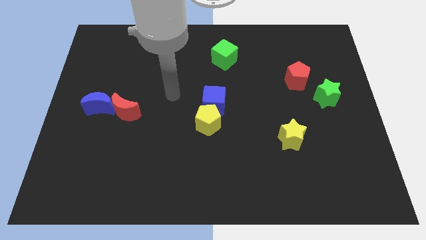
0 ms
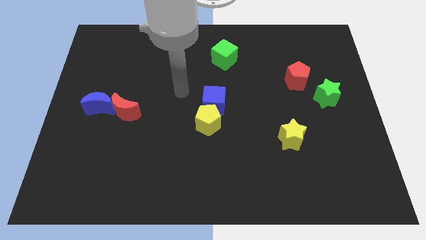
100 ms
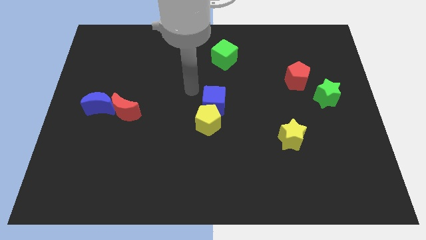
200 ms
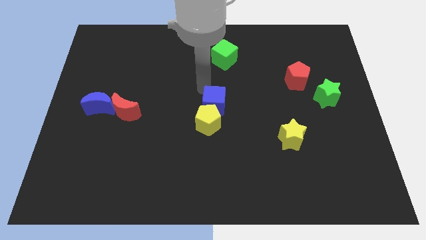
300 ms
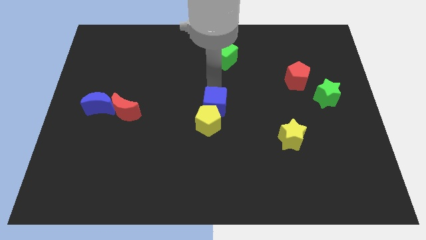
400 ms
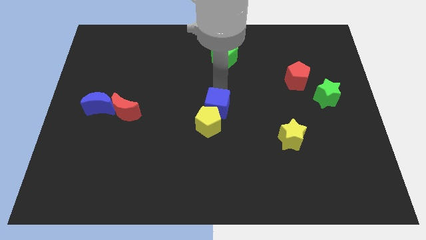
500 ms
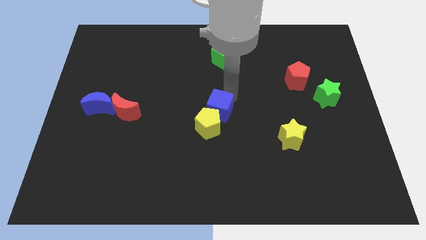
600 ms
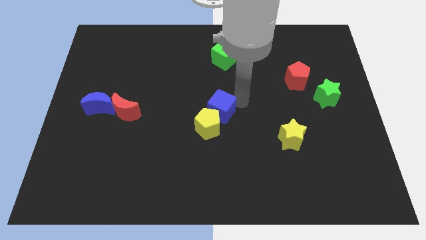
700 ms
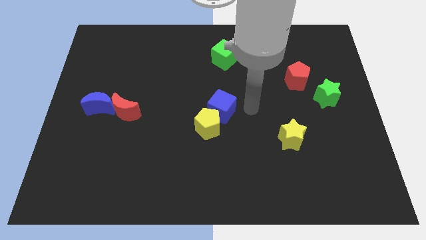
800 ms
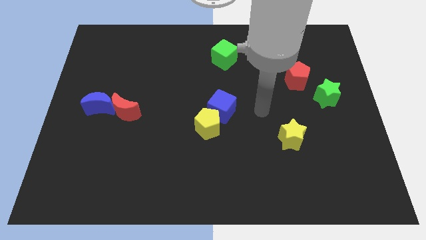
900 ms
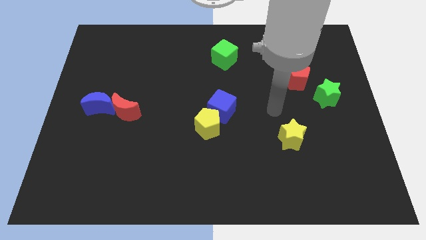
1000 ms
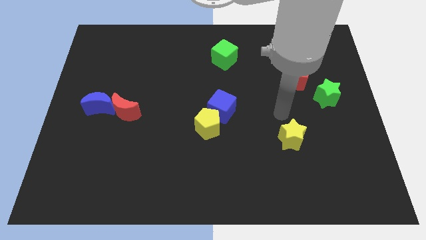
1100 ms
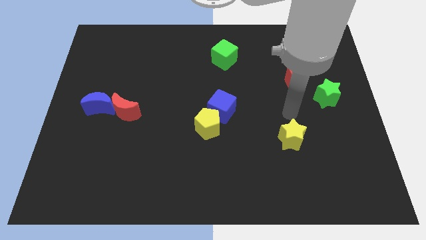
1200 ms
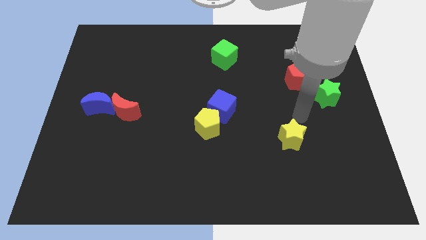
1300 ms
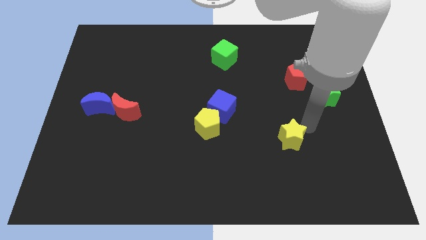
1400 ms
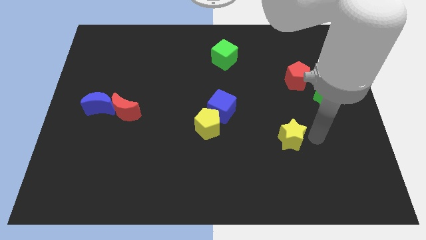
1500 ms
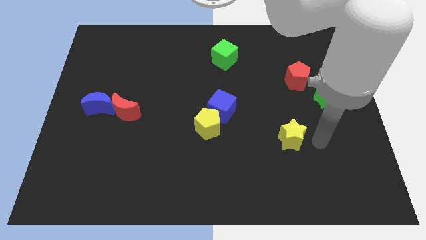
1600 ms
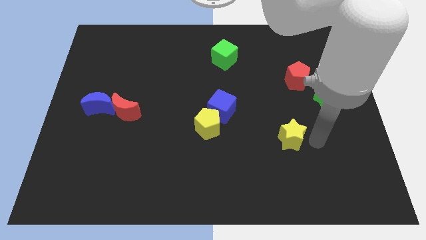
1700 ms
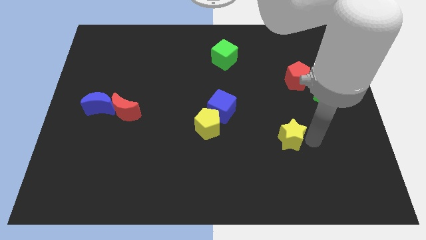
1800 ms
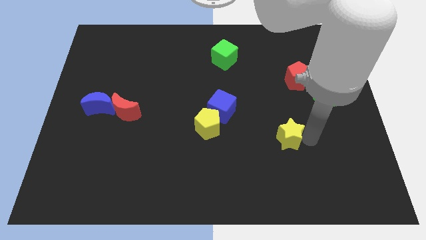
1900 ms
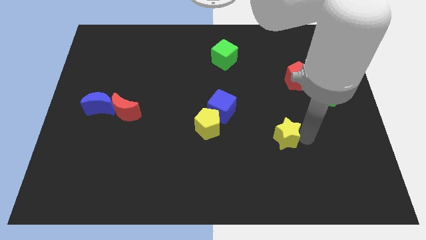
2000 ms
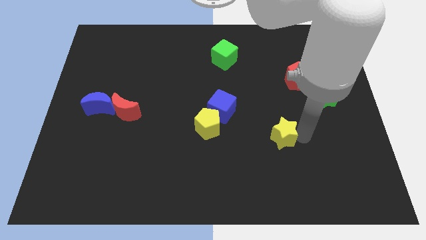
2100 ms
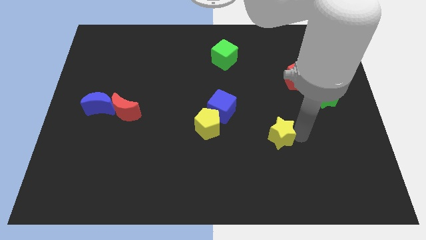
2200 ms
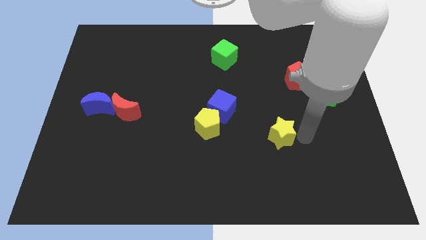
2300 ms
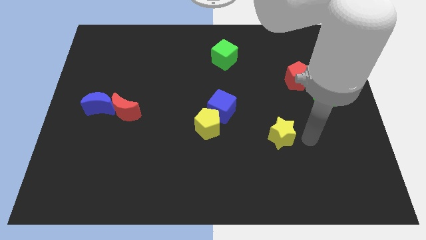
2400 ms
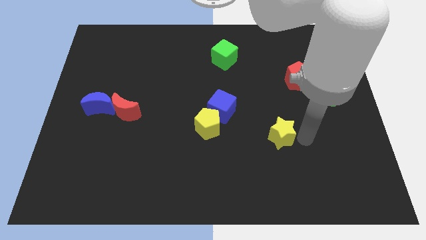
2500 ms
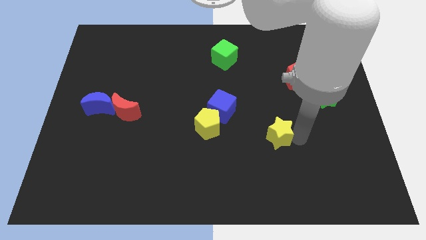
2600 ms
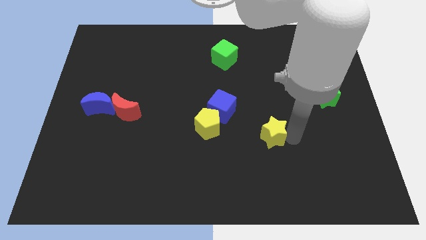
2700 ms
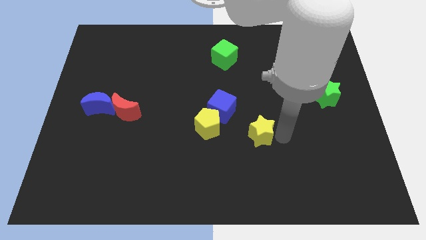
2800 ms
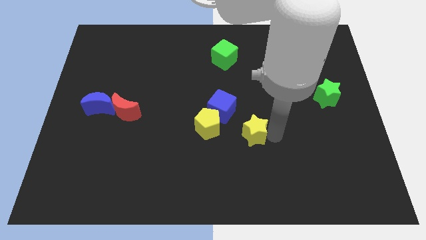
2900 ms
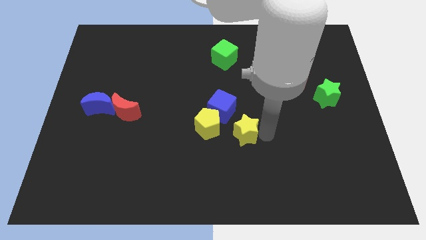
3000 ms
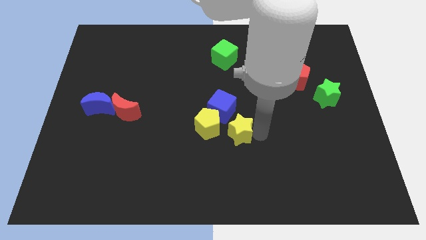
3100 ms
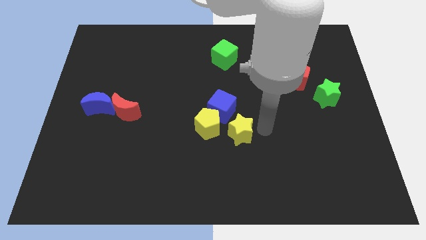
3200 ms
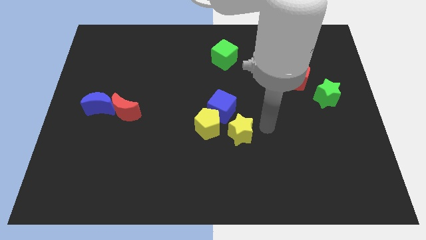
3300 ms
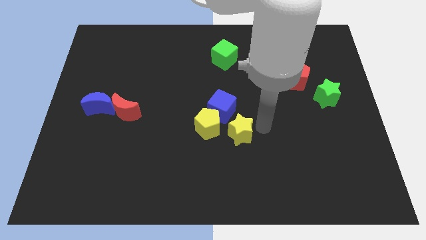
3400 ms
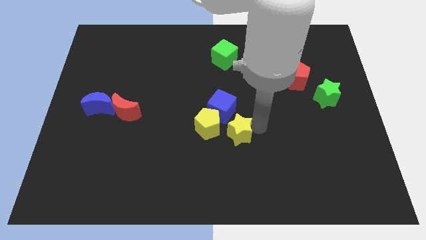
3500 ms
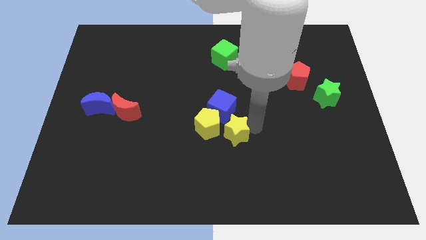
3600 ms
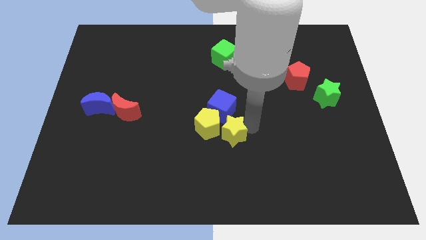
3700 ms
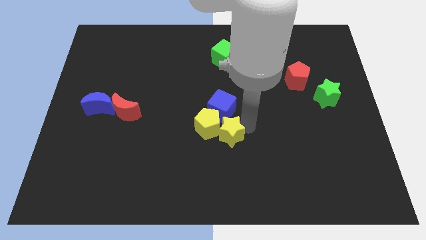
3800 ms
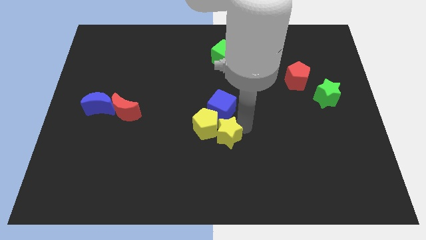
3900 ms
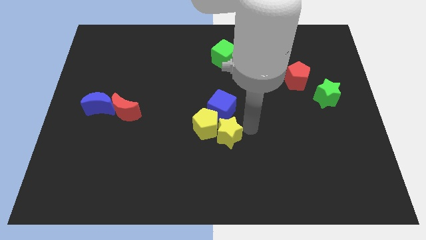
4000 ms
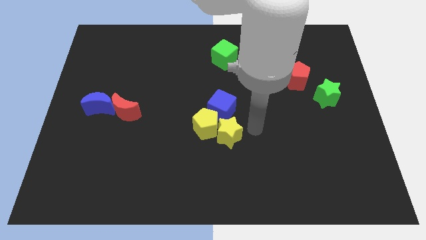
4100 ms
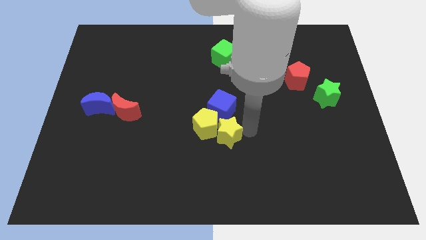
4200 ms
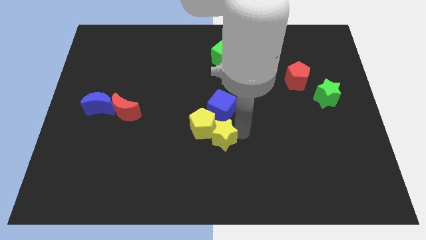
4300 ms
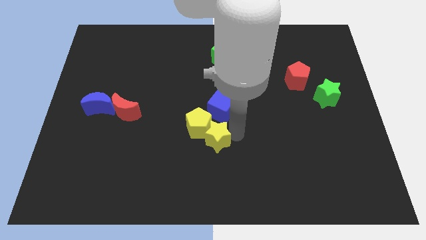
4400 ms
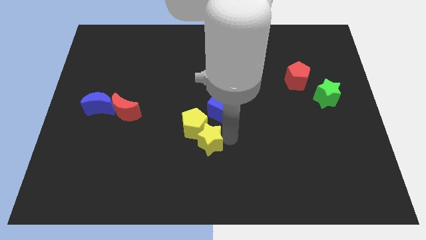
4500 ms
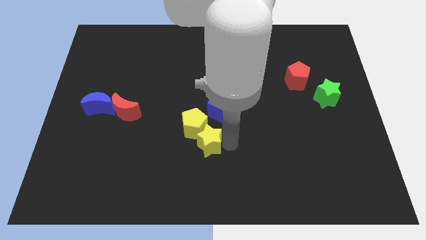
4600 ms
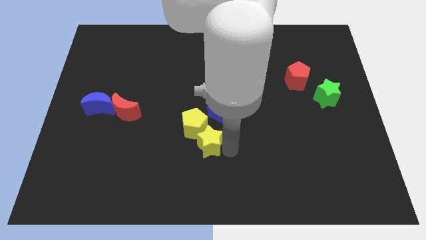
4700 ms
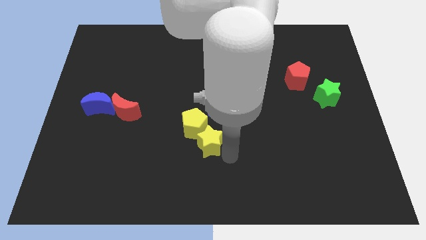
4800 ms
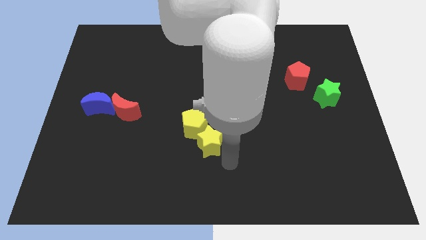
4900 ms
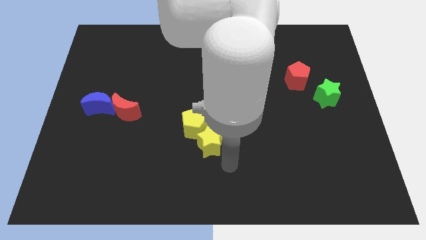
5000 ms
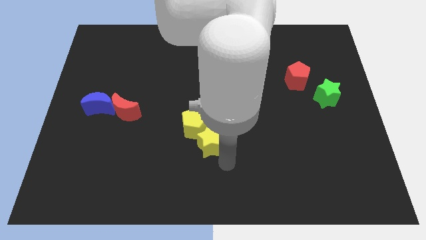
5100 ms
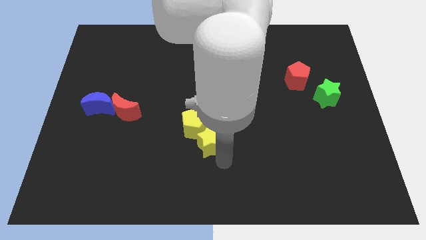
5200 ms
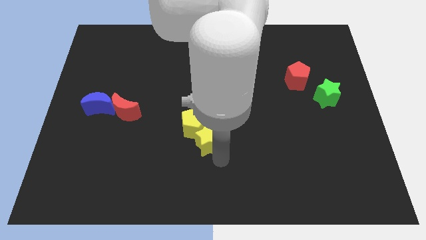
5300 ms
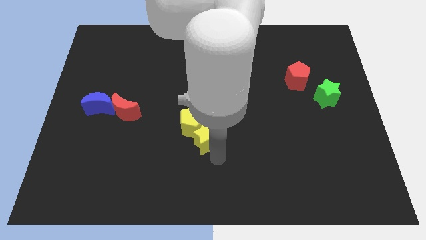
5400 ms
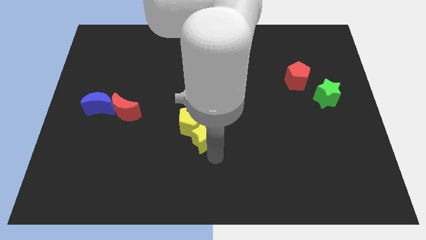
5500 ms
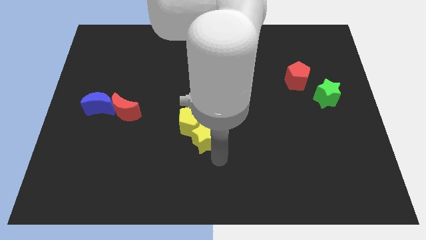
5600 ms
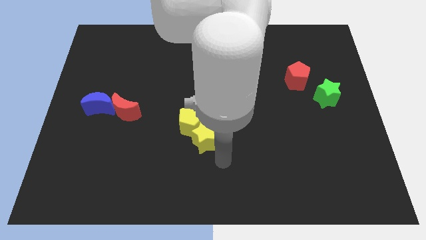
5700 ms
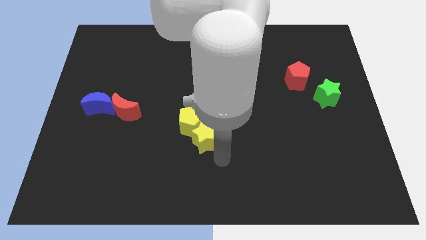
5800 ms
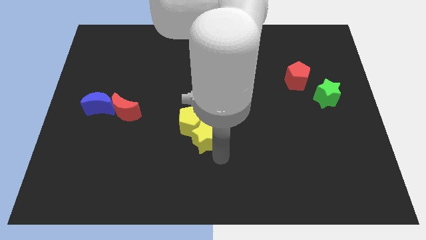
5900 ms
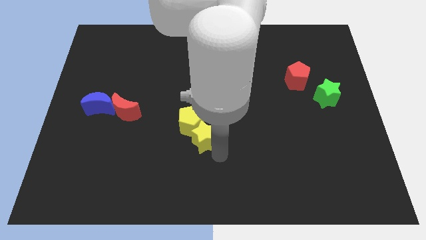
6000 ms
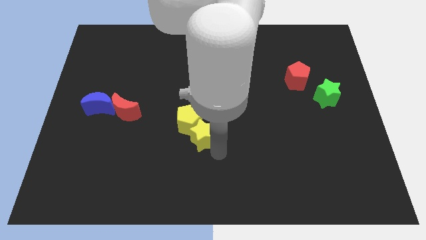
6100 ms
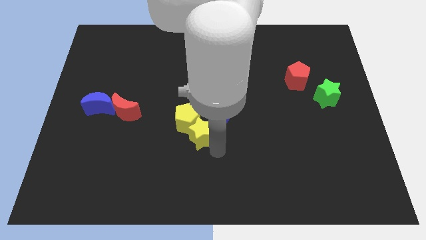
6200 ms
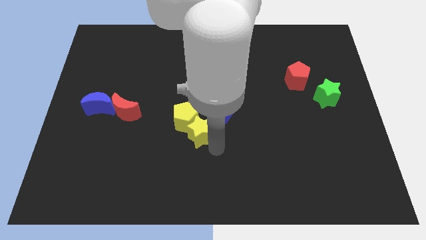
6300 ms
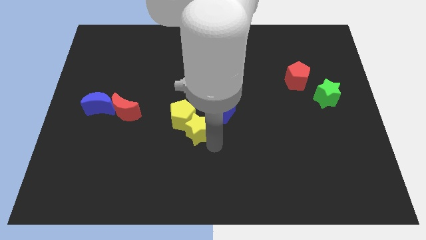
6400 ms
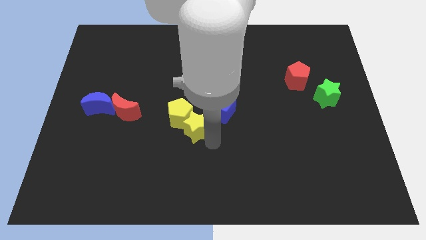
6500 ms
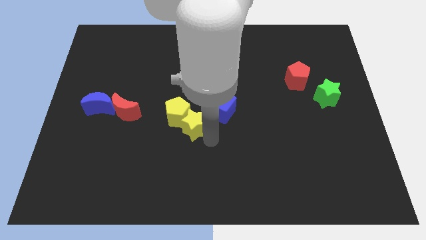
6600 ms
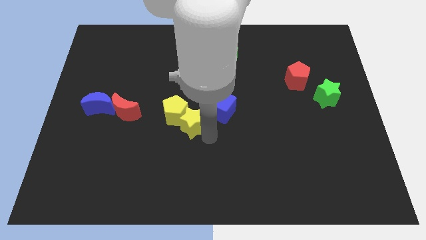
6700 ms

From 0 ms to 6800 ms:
push the yellow star to the left side of the blue cube
